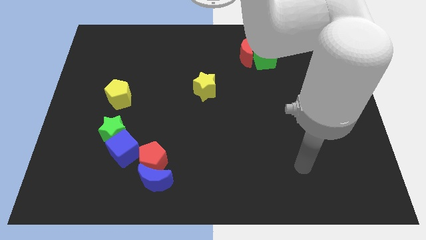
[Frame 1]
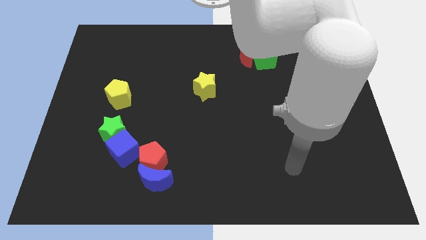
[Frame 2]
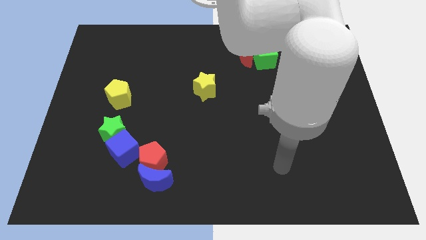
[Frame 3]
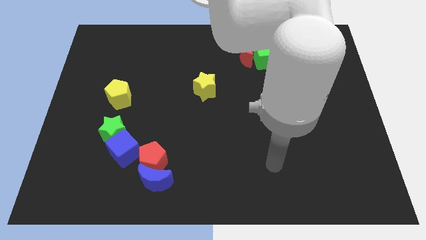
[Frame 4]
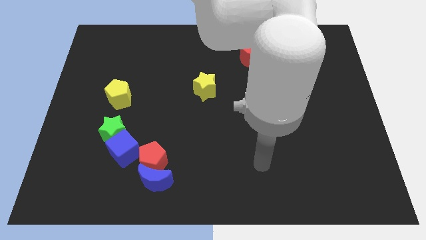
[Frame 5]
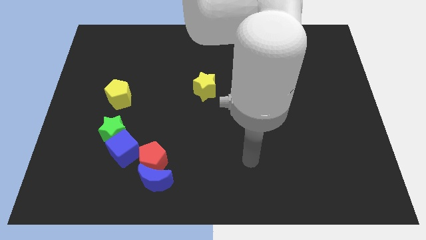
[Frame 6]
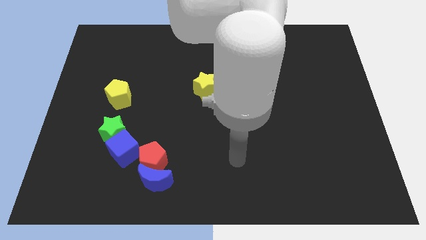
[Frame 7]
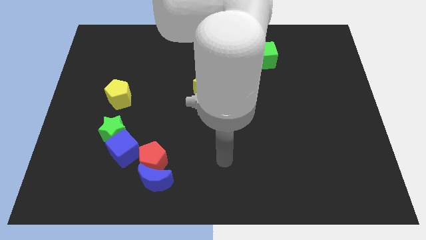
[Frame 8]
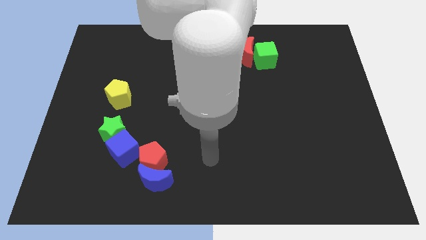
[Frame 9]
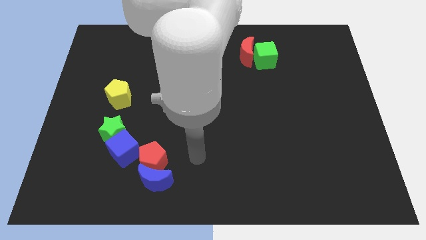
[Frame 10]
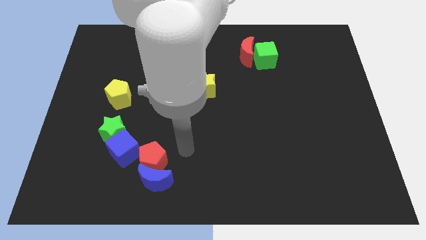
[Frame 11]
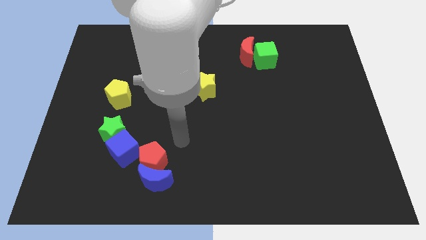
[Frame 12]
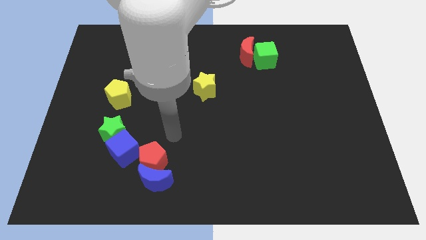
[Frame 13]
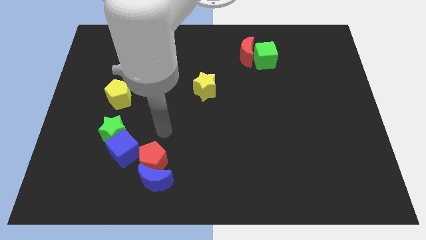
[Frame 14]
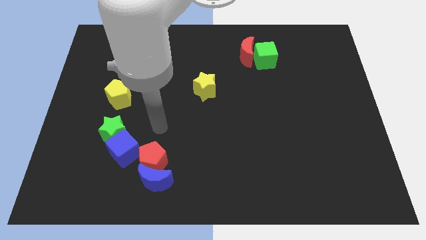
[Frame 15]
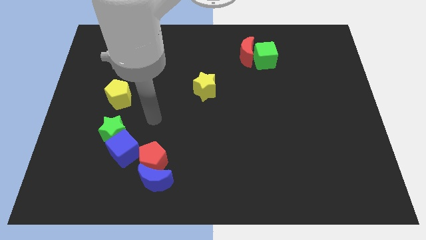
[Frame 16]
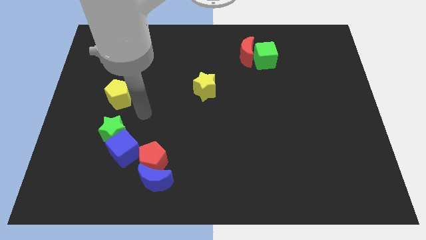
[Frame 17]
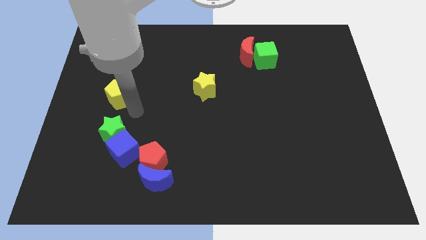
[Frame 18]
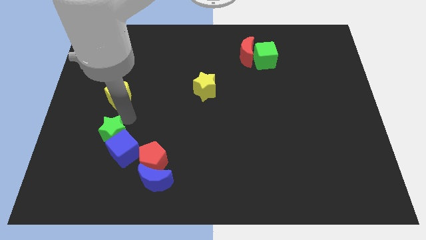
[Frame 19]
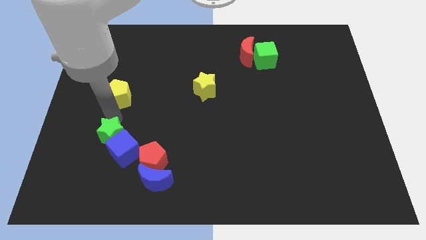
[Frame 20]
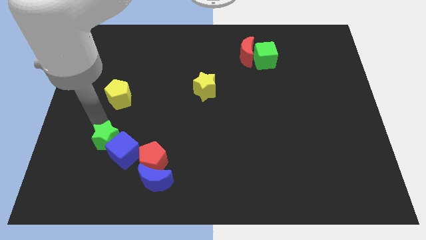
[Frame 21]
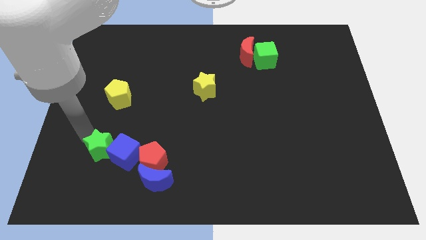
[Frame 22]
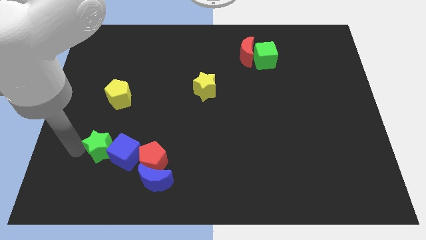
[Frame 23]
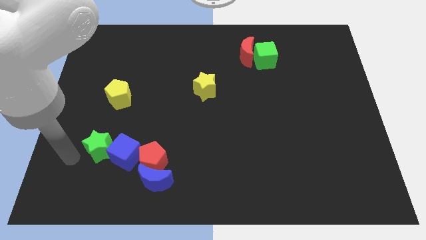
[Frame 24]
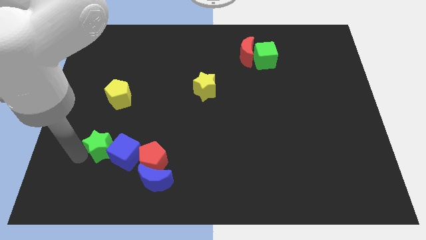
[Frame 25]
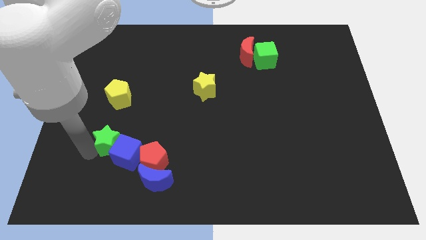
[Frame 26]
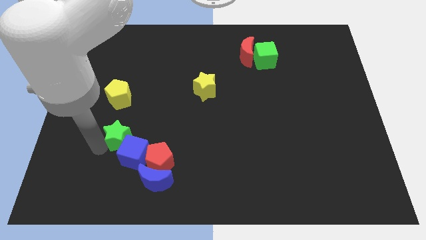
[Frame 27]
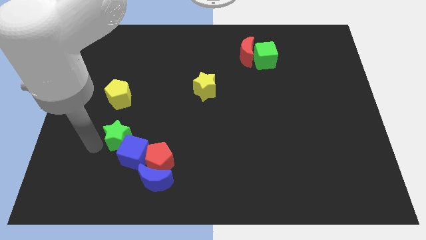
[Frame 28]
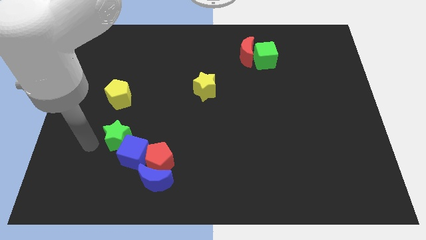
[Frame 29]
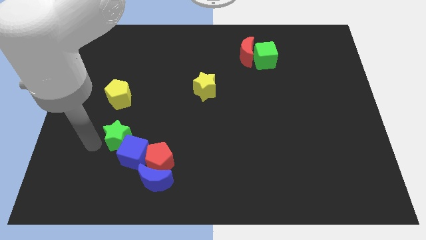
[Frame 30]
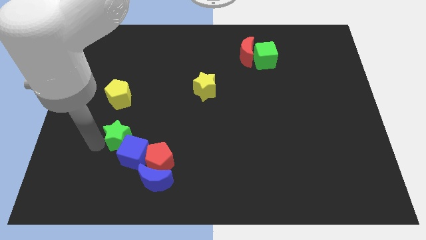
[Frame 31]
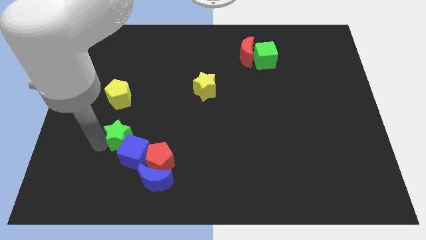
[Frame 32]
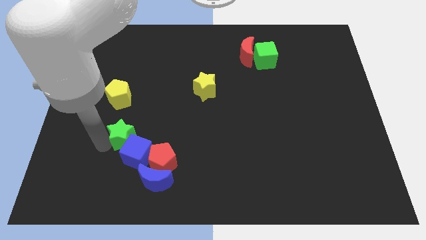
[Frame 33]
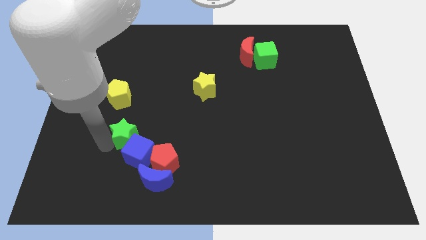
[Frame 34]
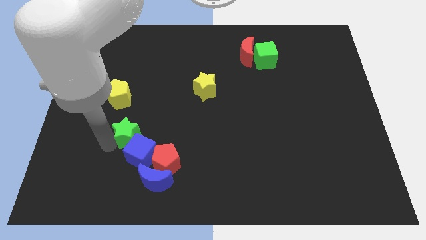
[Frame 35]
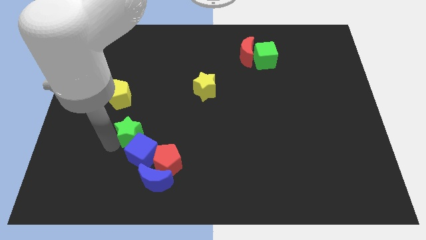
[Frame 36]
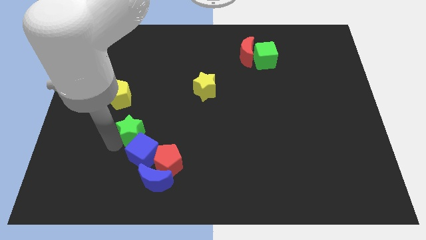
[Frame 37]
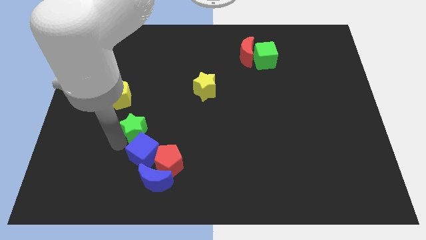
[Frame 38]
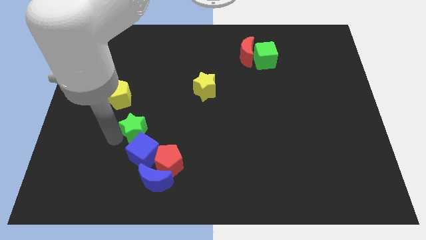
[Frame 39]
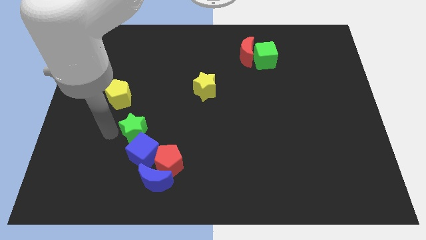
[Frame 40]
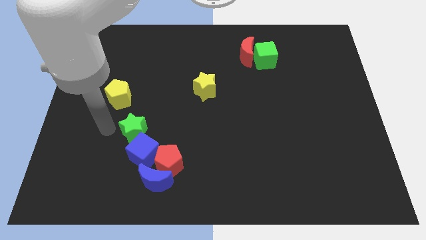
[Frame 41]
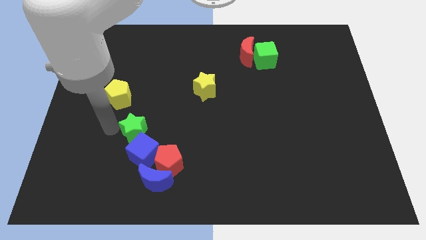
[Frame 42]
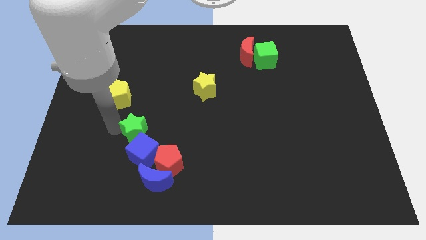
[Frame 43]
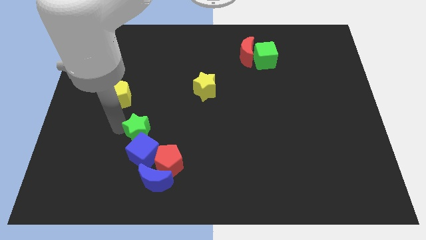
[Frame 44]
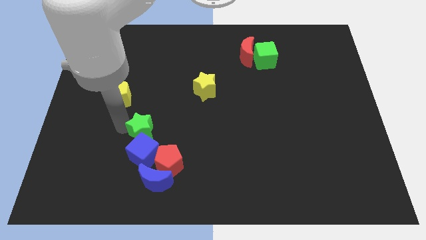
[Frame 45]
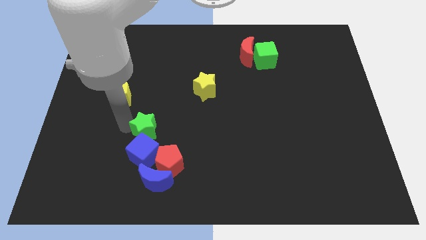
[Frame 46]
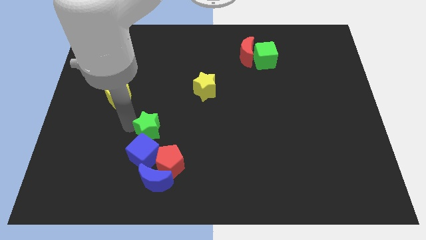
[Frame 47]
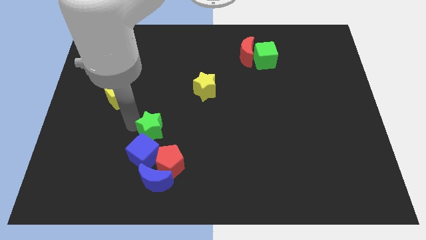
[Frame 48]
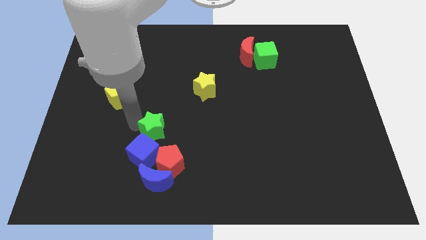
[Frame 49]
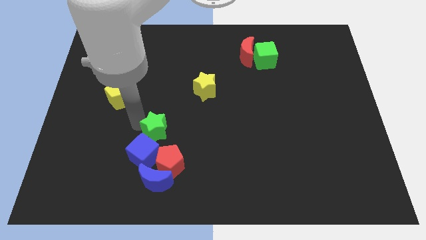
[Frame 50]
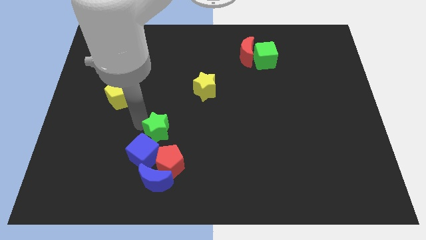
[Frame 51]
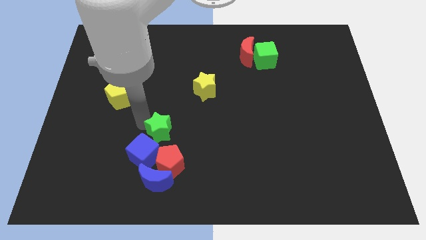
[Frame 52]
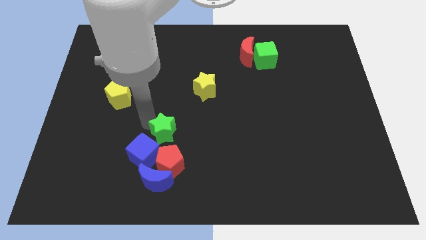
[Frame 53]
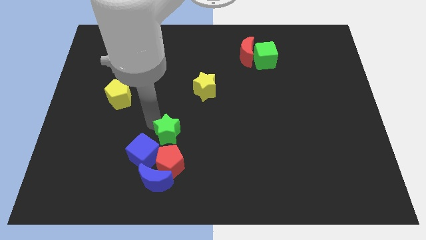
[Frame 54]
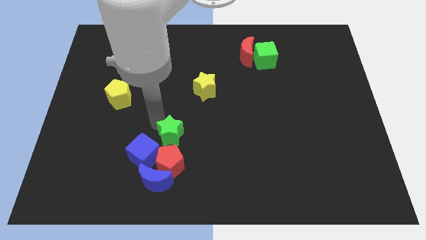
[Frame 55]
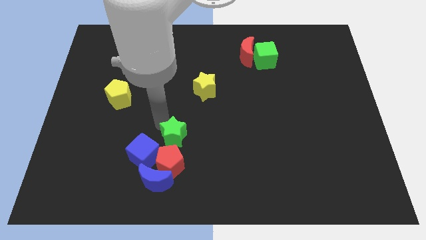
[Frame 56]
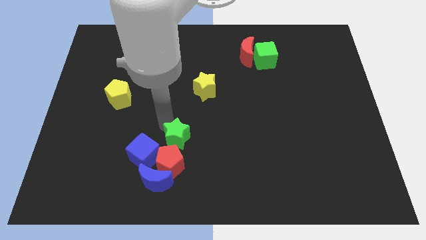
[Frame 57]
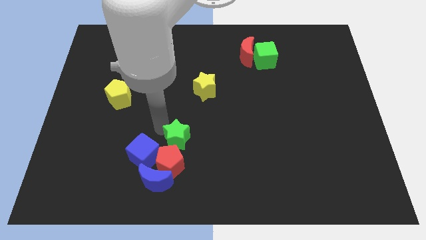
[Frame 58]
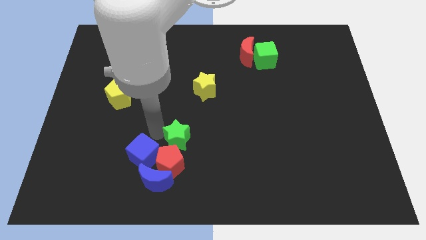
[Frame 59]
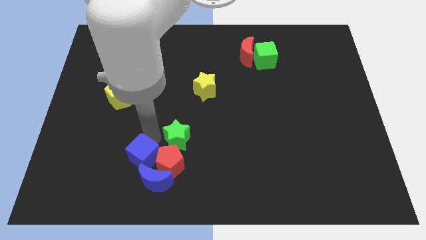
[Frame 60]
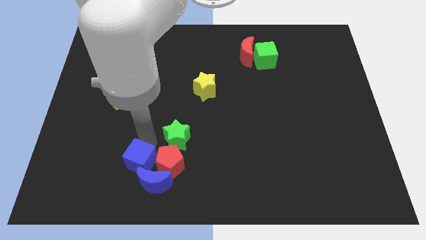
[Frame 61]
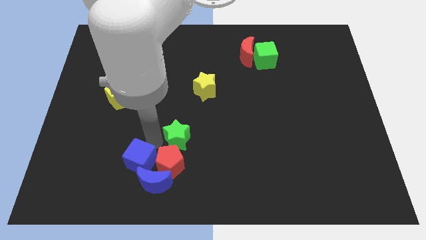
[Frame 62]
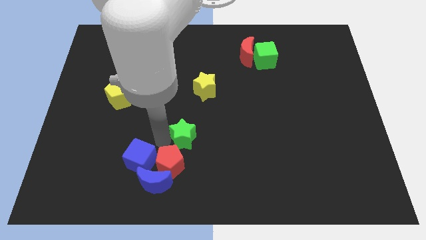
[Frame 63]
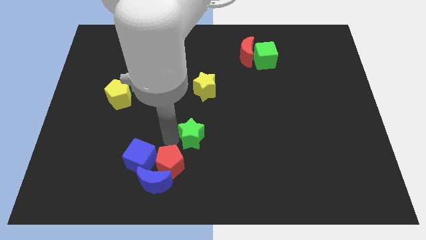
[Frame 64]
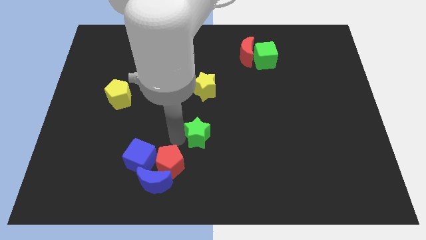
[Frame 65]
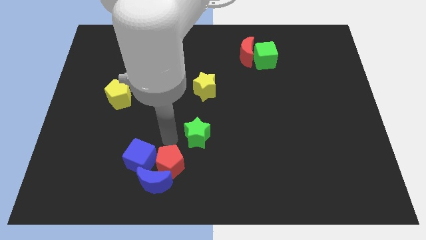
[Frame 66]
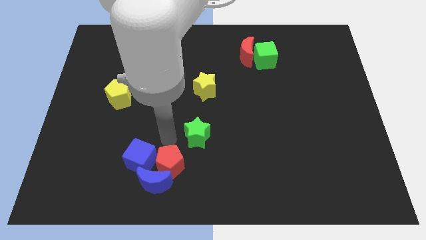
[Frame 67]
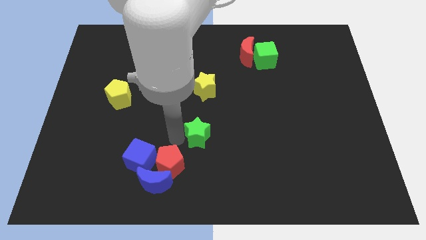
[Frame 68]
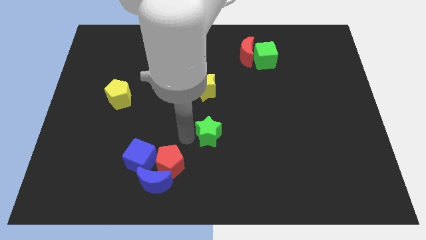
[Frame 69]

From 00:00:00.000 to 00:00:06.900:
push the green star right

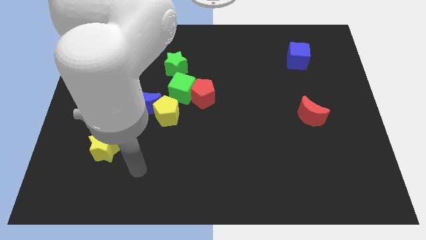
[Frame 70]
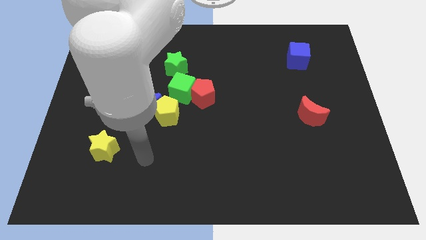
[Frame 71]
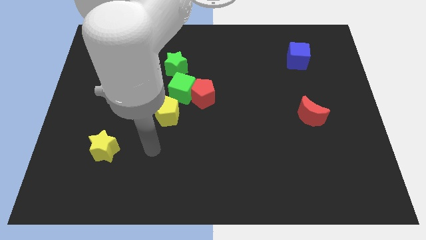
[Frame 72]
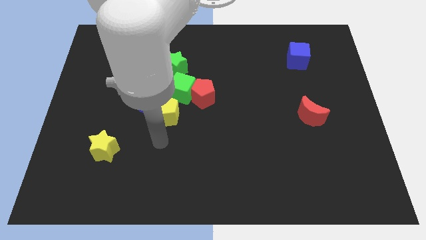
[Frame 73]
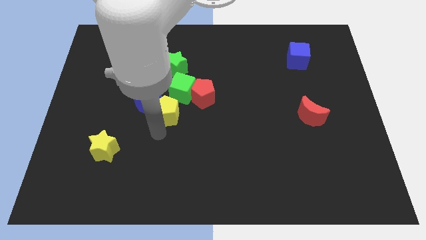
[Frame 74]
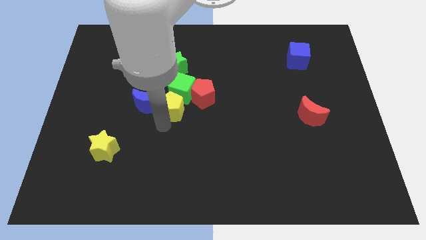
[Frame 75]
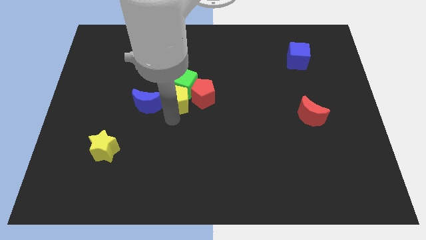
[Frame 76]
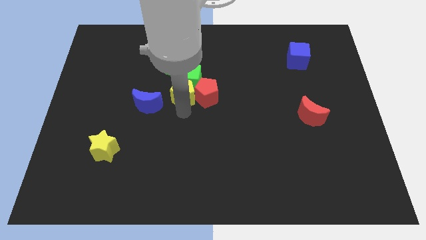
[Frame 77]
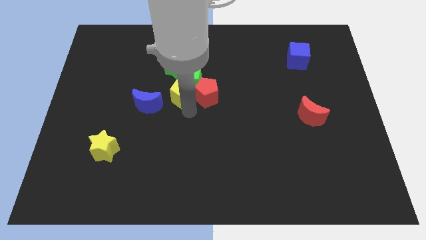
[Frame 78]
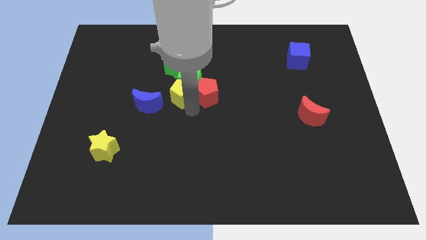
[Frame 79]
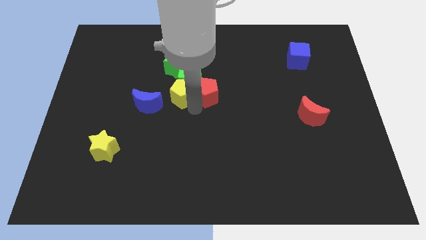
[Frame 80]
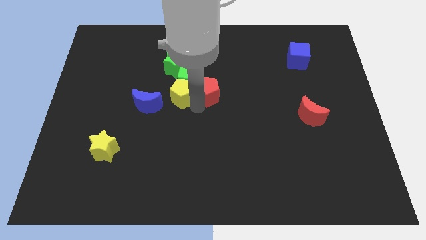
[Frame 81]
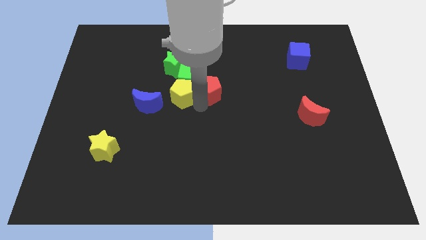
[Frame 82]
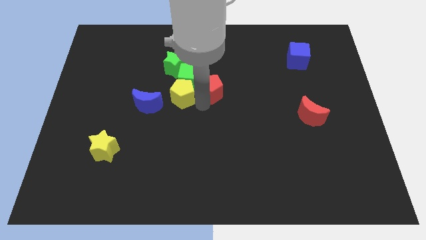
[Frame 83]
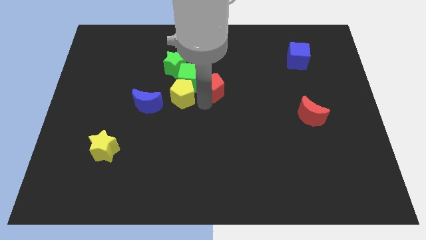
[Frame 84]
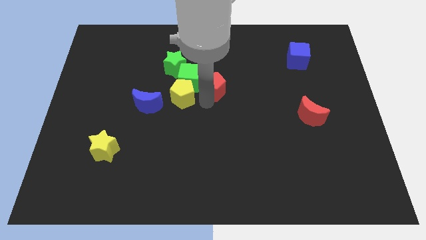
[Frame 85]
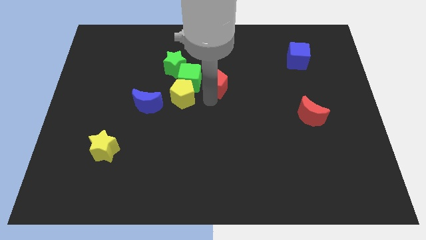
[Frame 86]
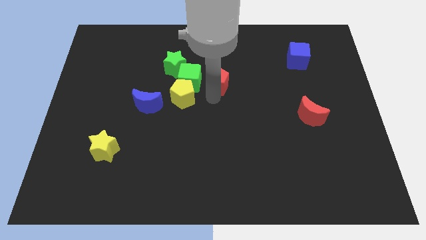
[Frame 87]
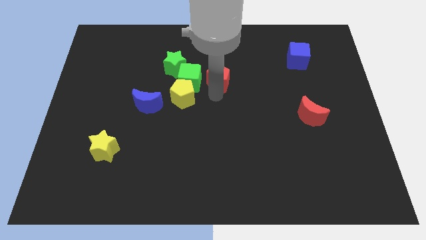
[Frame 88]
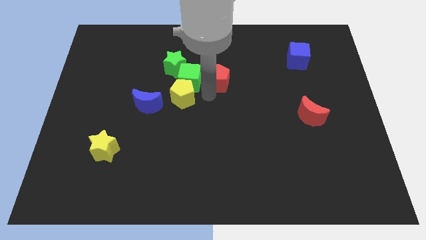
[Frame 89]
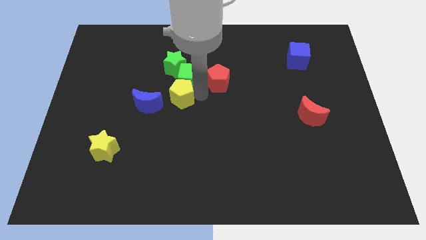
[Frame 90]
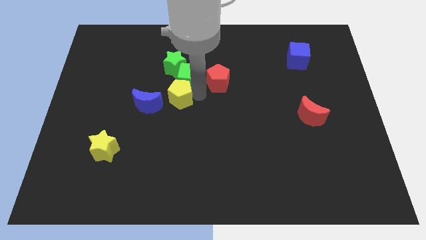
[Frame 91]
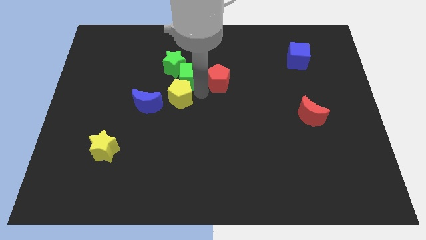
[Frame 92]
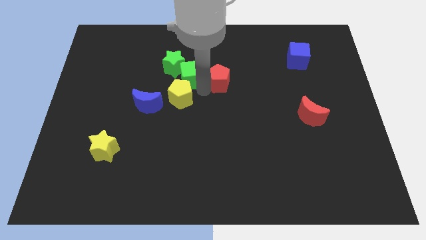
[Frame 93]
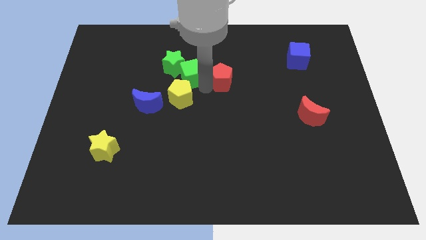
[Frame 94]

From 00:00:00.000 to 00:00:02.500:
move the red pentagon diagonally up and to the right a bit
